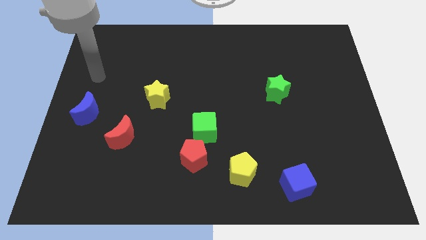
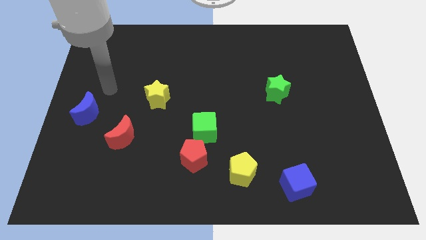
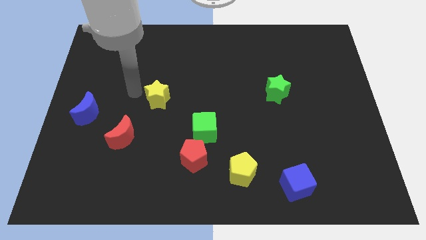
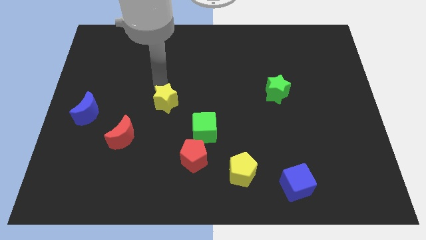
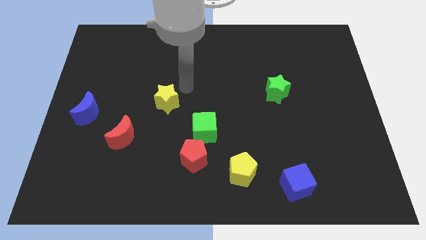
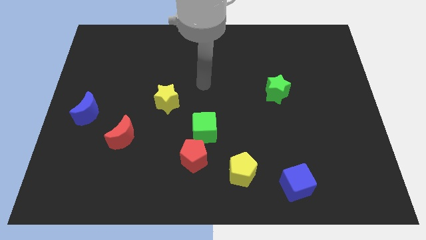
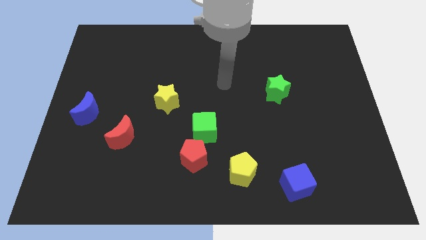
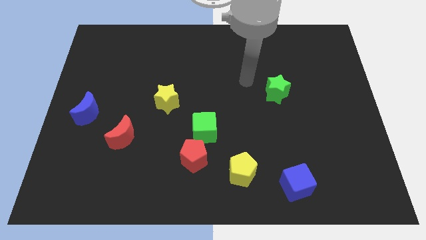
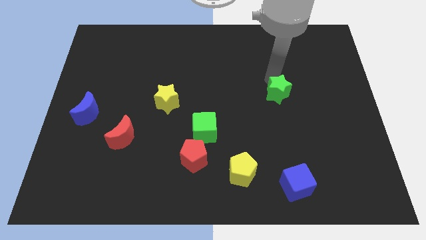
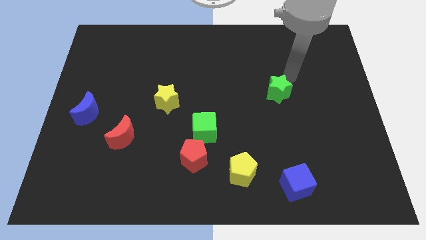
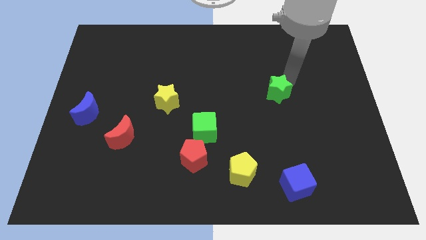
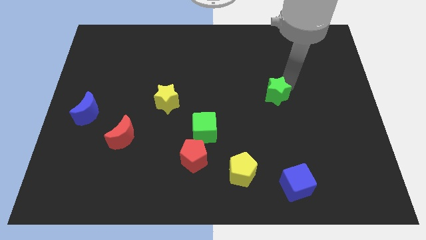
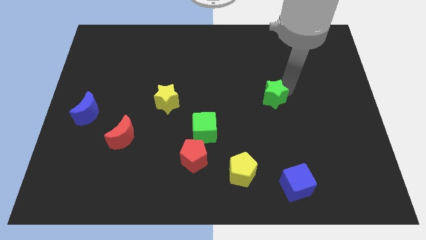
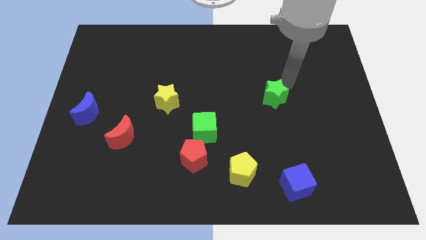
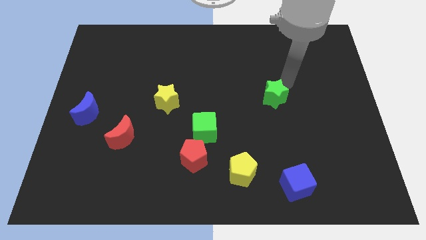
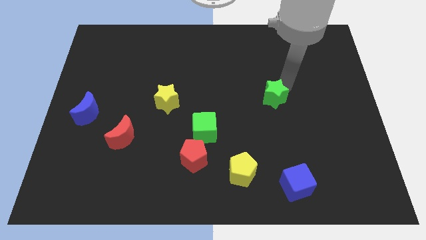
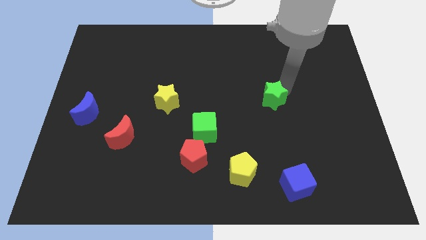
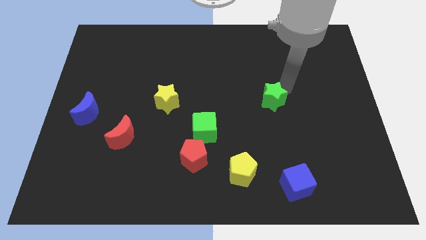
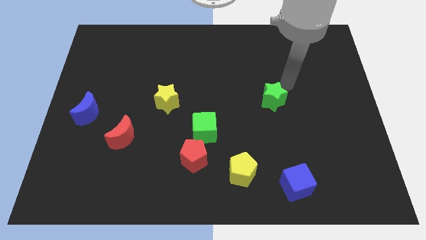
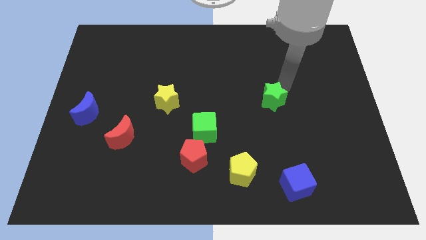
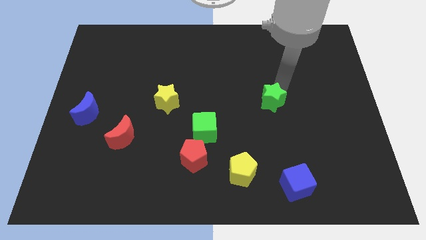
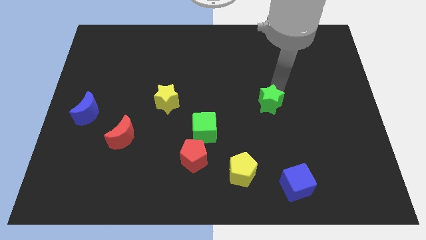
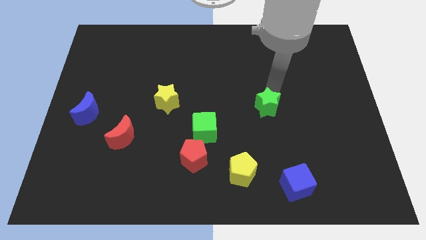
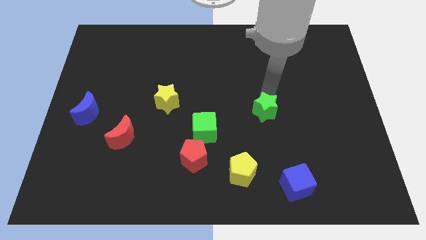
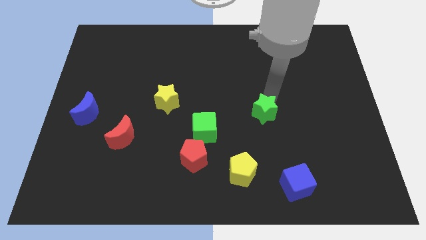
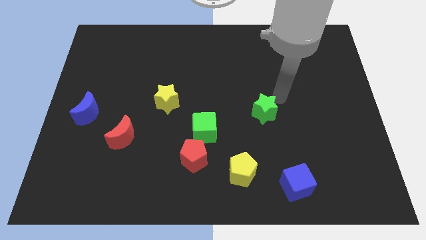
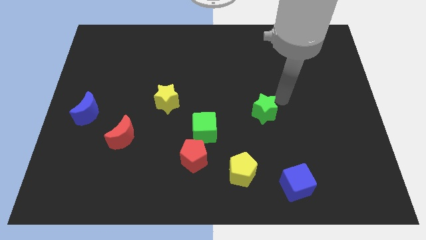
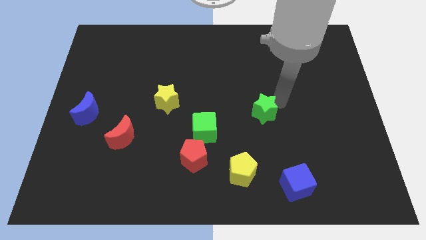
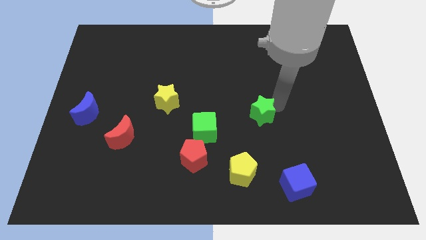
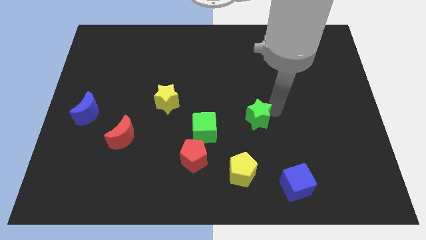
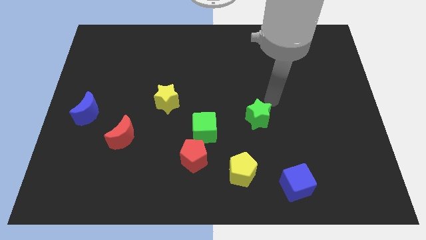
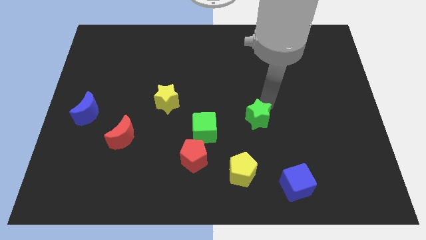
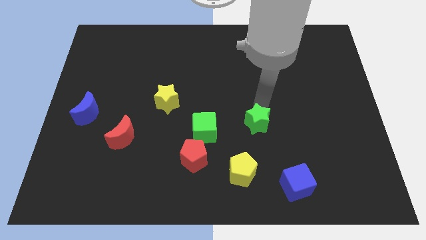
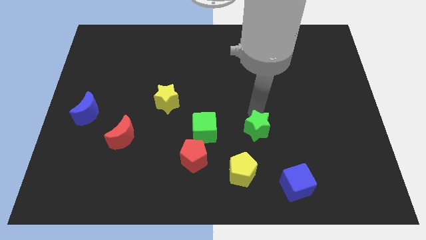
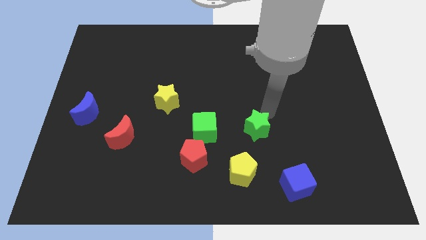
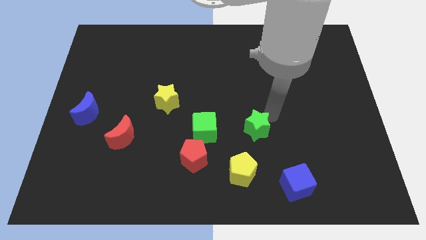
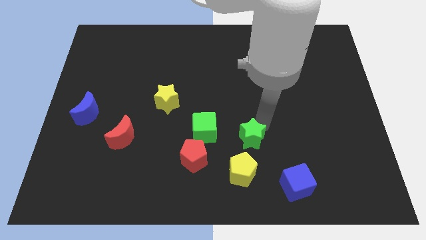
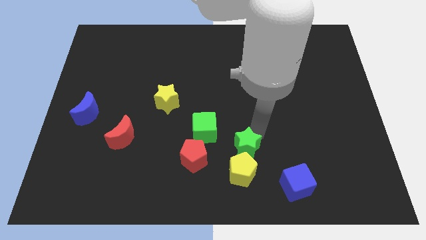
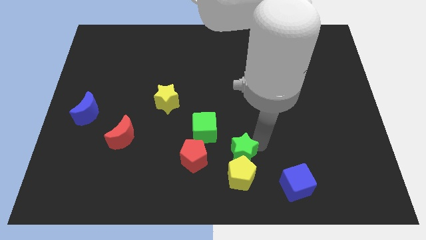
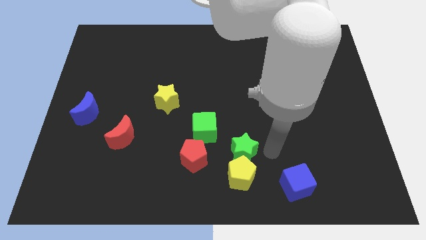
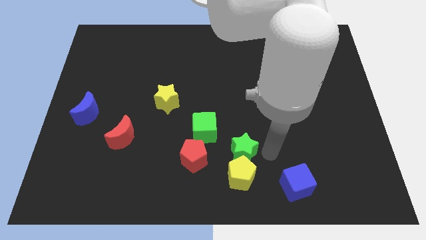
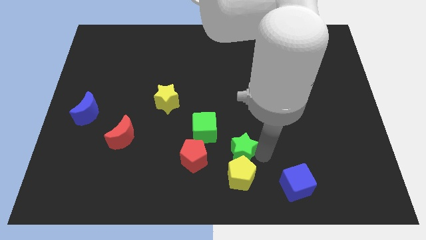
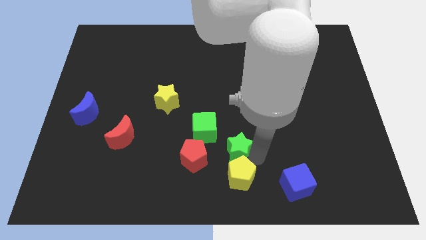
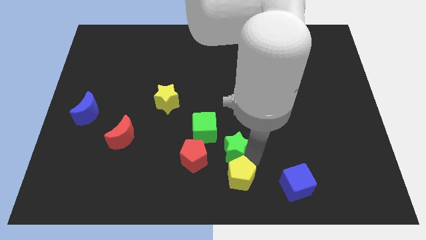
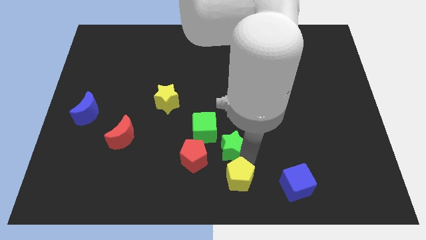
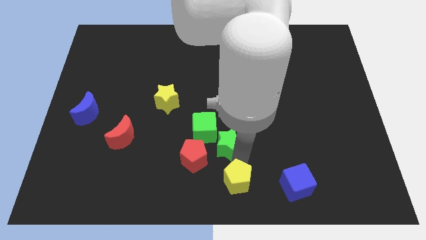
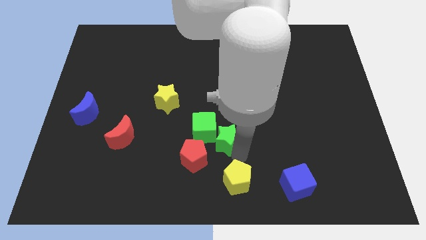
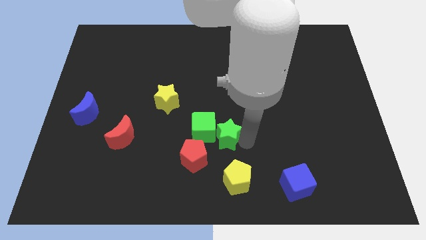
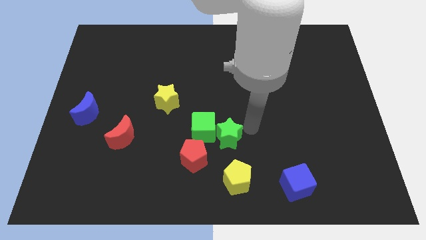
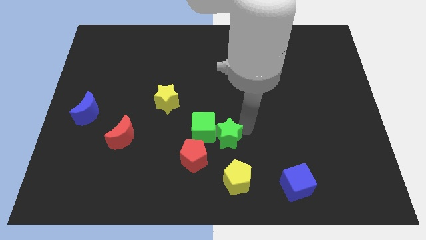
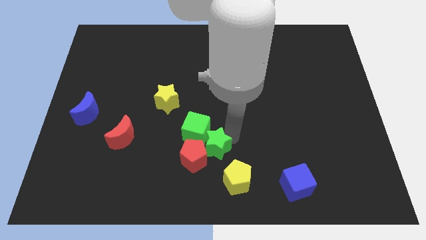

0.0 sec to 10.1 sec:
slide the green star next to the red pentagon

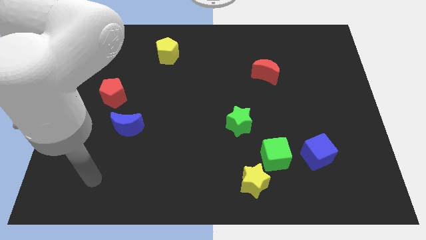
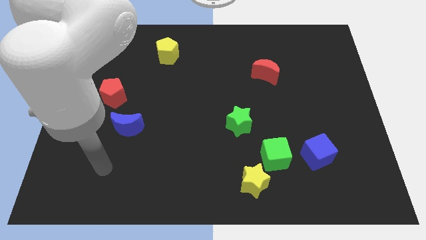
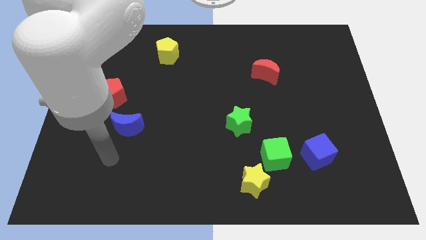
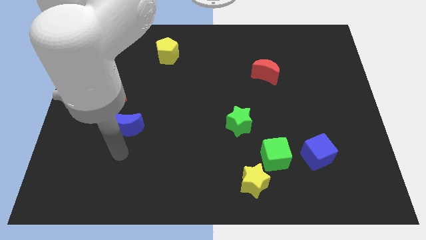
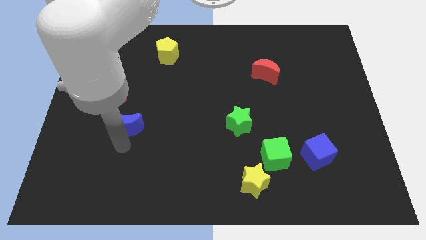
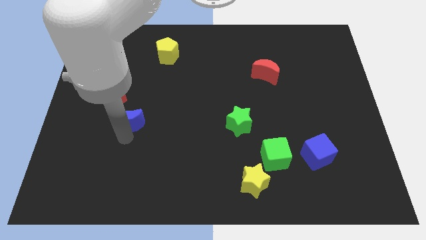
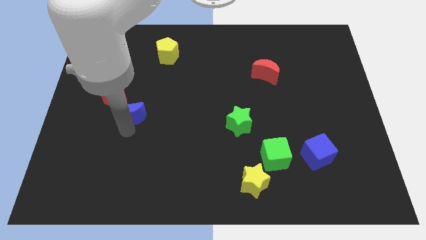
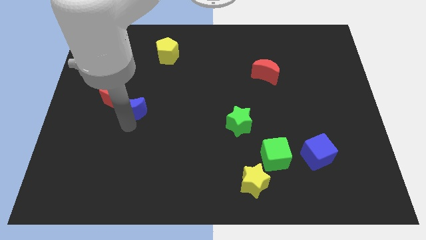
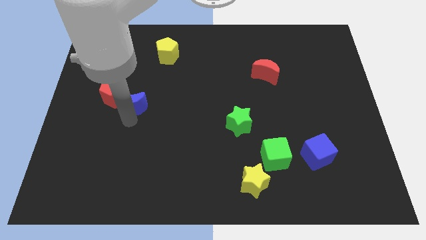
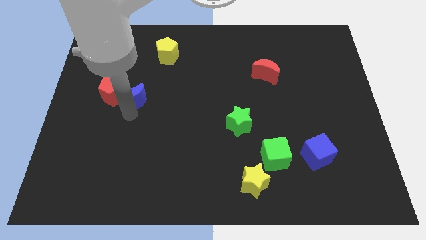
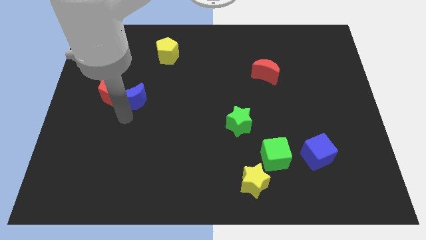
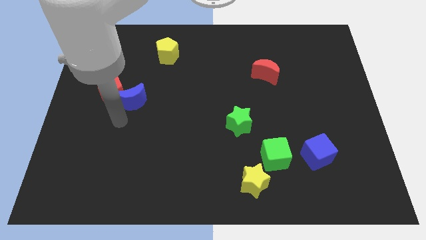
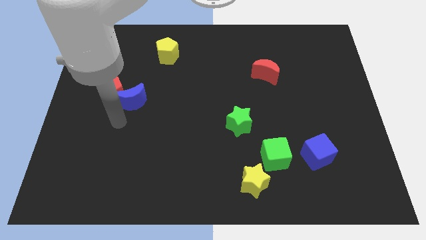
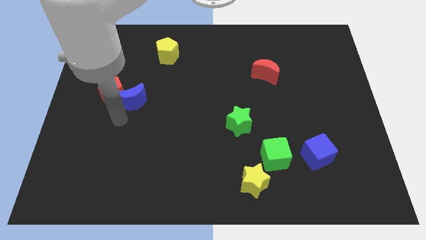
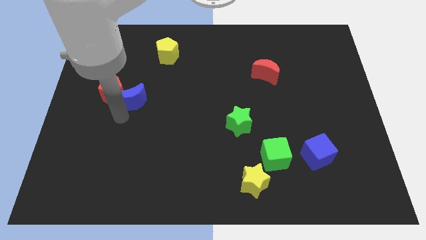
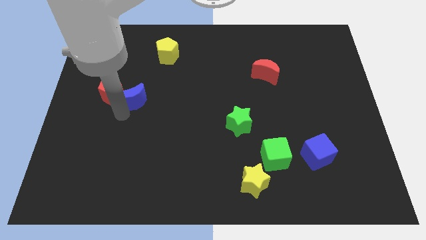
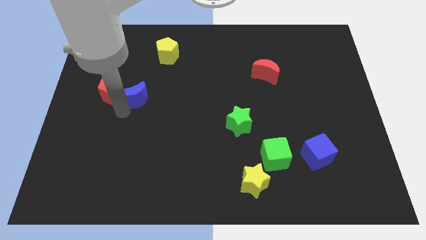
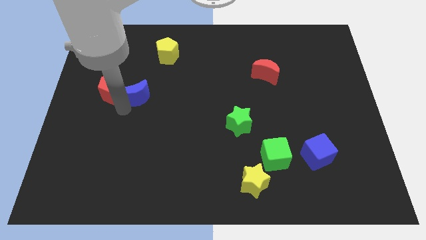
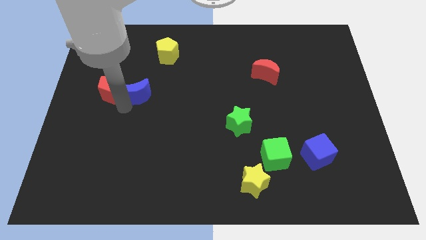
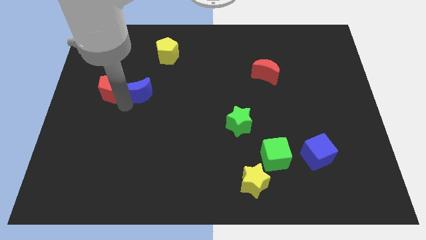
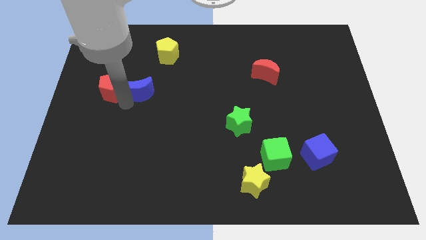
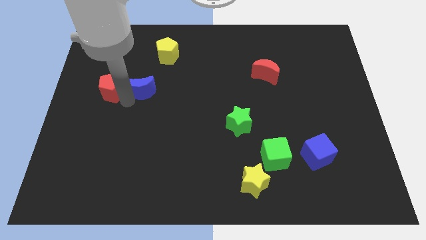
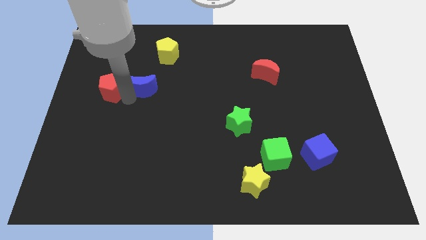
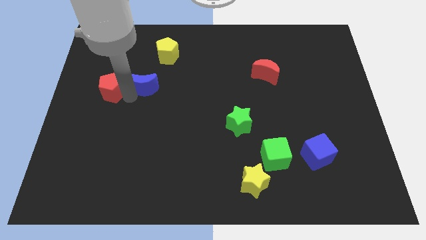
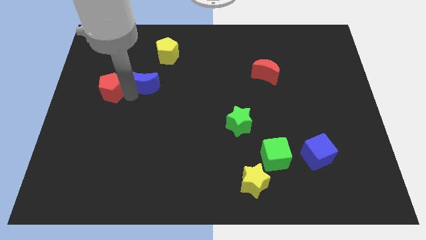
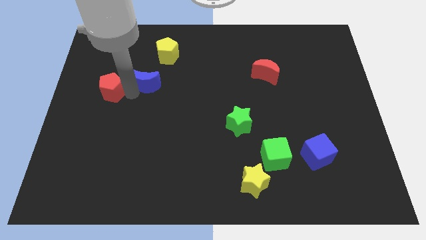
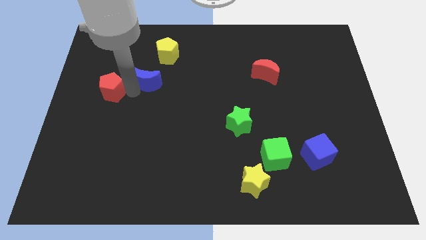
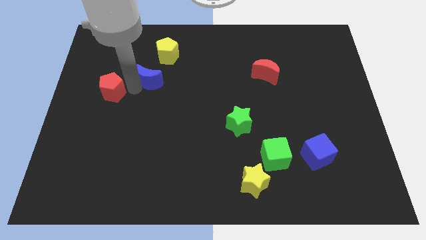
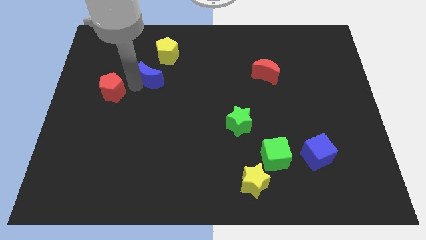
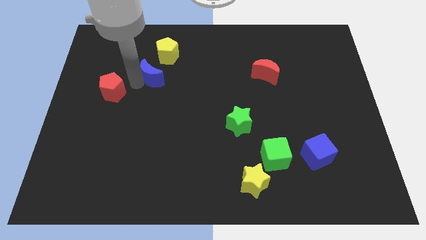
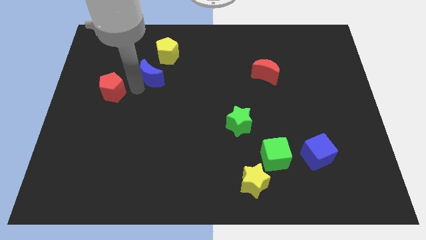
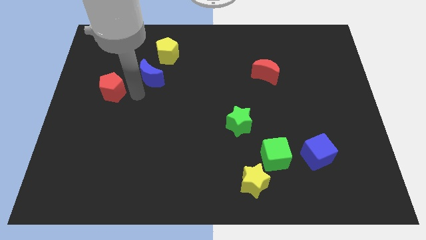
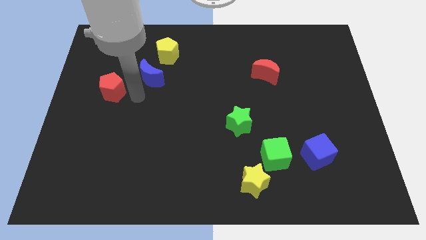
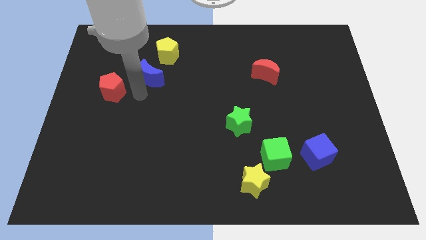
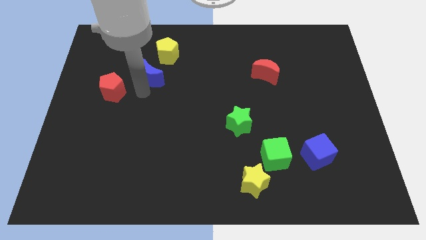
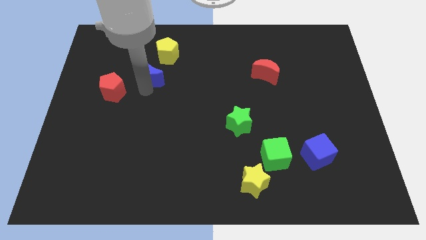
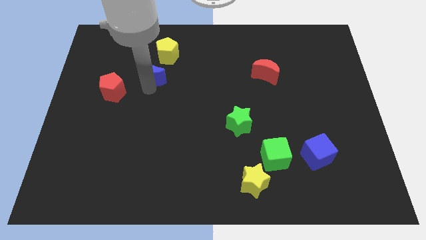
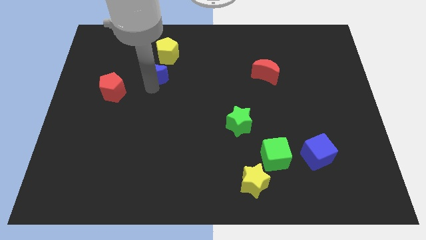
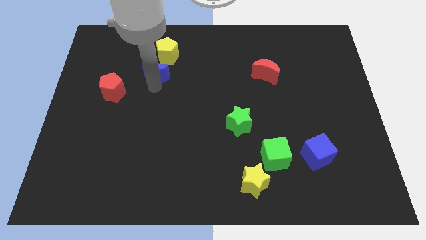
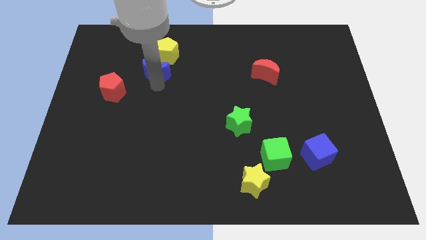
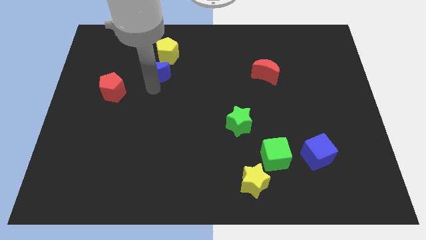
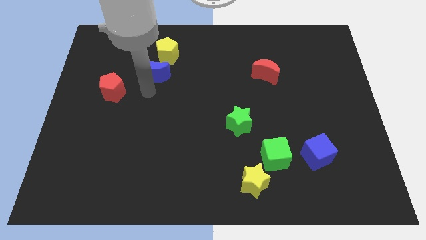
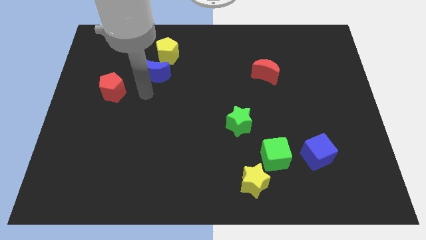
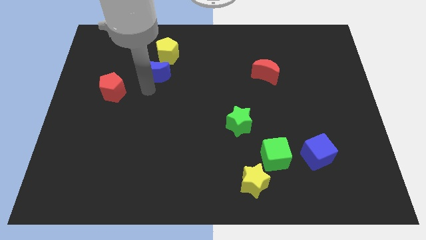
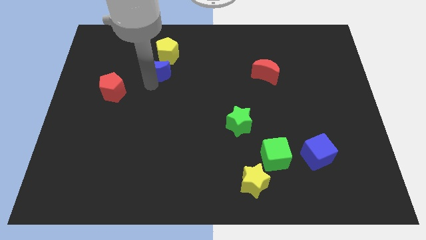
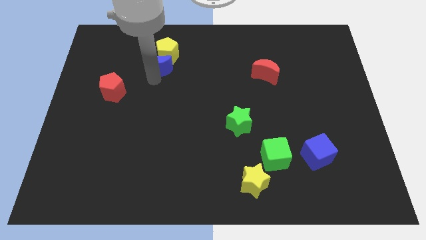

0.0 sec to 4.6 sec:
move the blue moon close to the yellow pentagon
